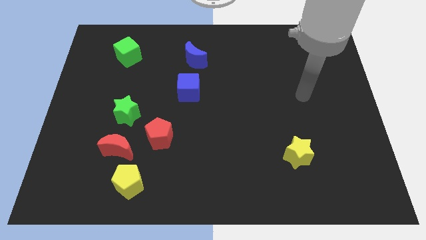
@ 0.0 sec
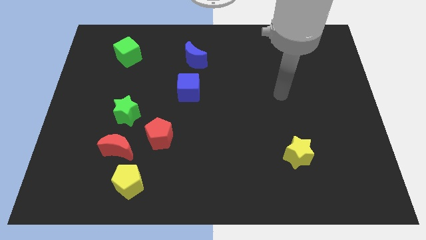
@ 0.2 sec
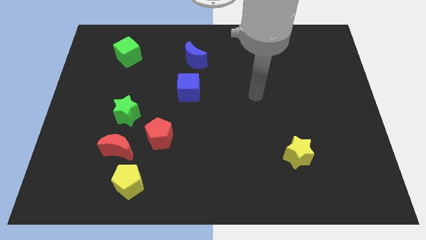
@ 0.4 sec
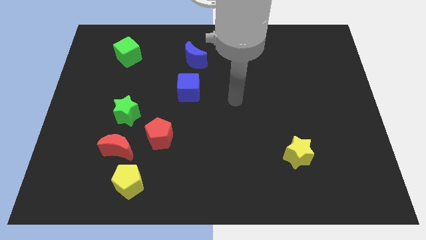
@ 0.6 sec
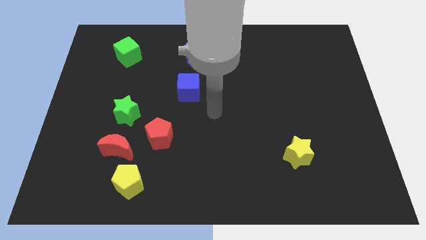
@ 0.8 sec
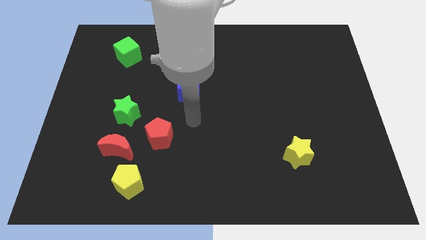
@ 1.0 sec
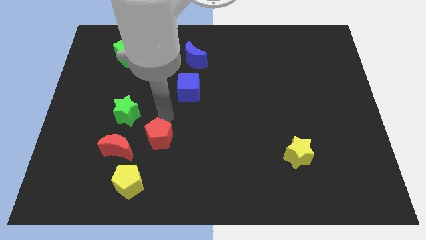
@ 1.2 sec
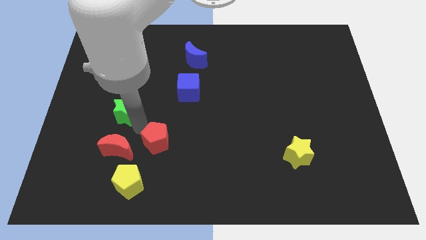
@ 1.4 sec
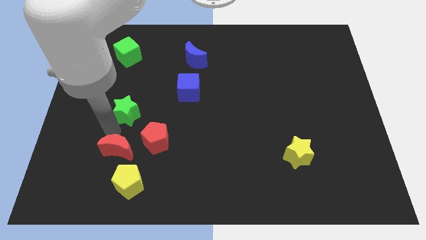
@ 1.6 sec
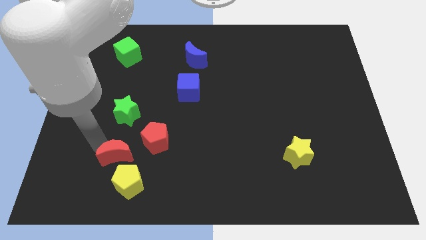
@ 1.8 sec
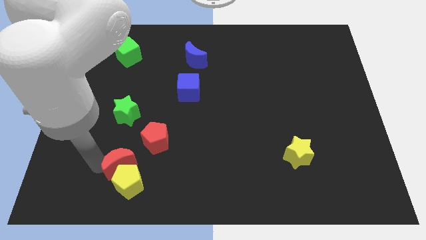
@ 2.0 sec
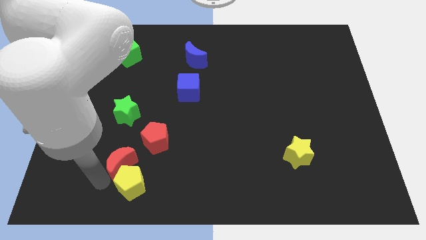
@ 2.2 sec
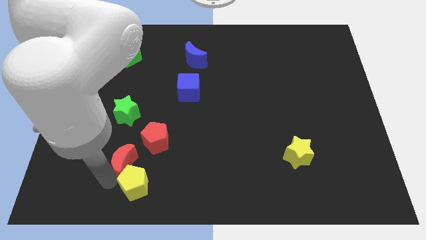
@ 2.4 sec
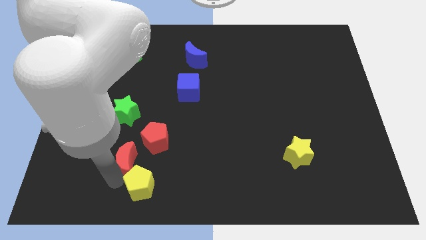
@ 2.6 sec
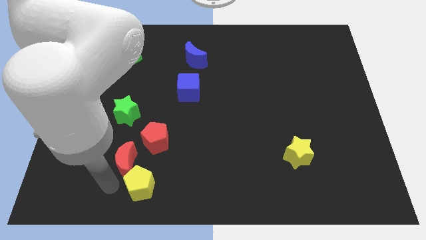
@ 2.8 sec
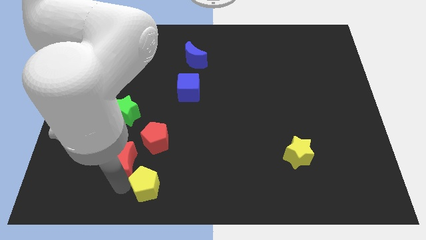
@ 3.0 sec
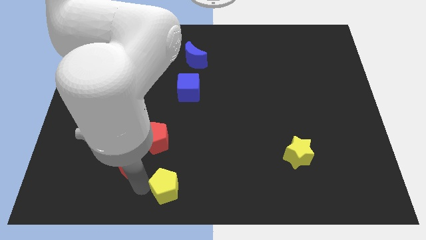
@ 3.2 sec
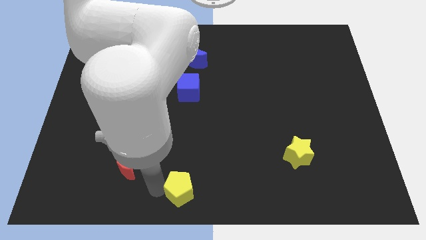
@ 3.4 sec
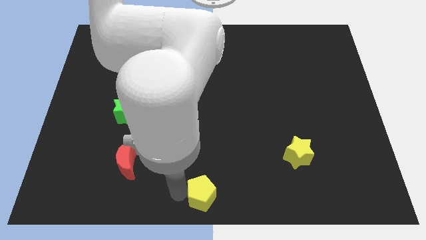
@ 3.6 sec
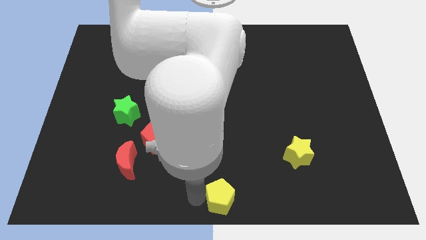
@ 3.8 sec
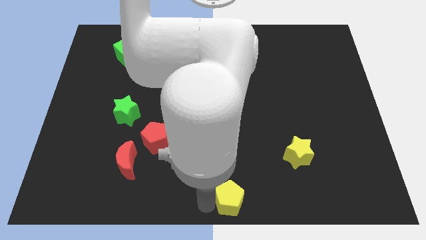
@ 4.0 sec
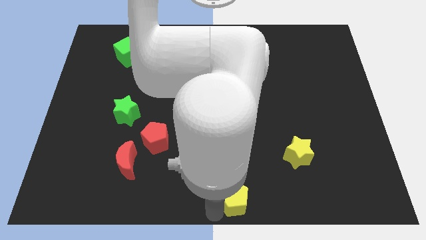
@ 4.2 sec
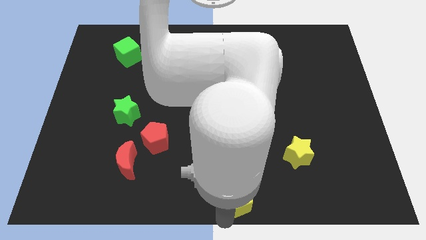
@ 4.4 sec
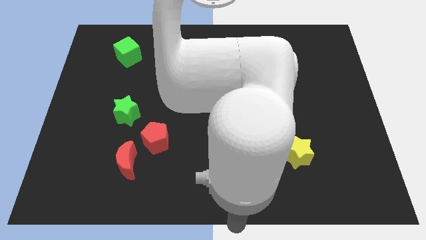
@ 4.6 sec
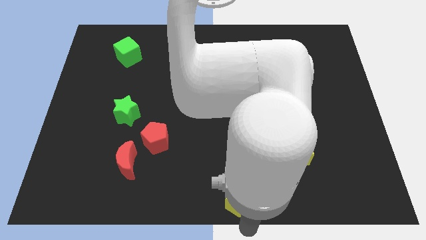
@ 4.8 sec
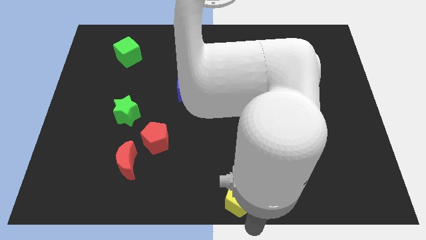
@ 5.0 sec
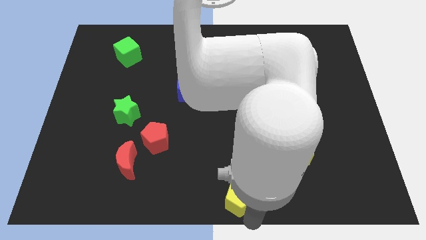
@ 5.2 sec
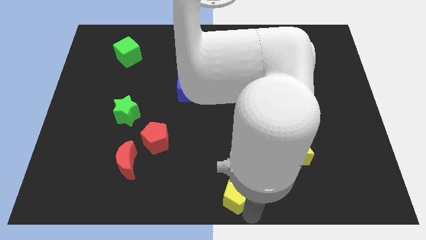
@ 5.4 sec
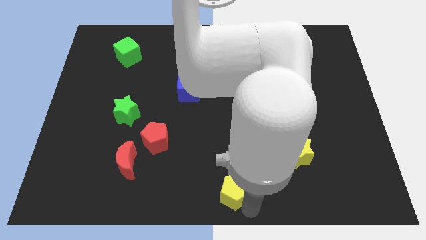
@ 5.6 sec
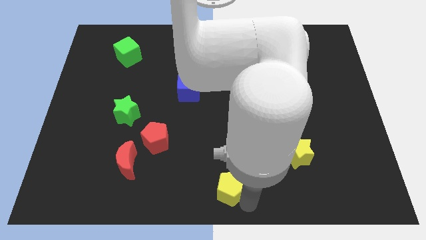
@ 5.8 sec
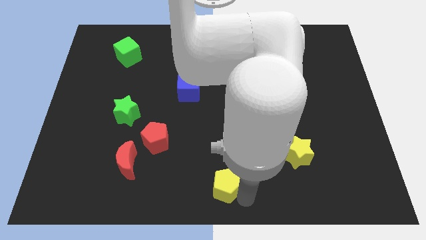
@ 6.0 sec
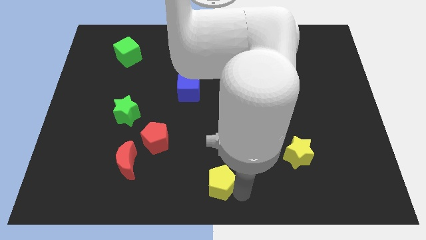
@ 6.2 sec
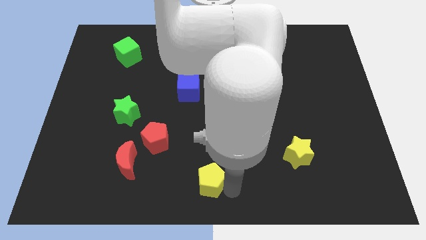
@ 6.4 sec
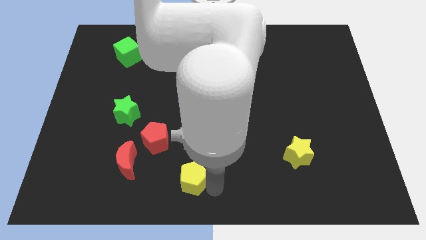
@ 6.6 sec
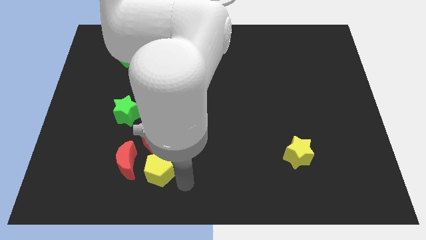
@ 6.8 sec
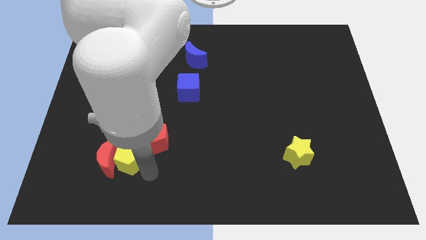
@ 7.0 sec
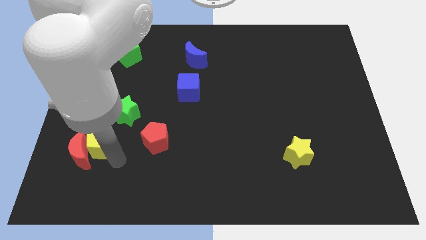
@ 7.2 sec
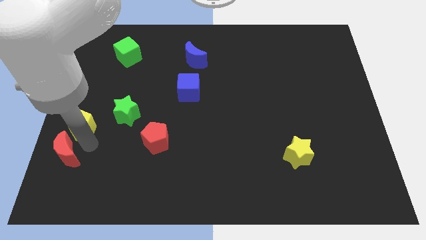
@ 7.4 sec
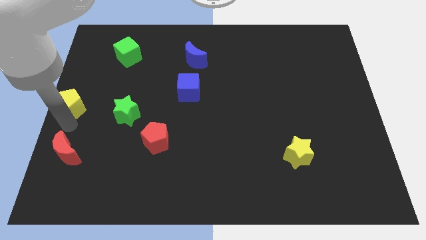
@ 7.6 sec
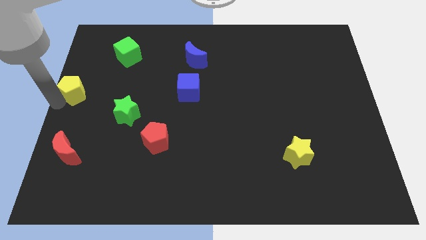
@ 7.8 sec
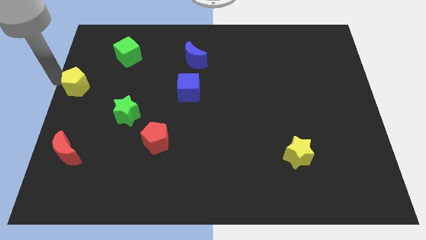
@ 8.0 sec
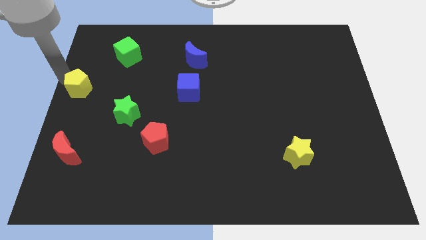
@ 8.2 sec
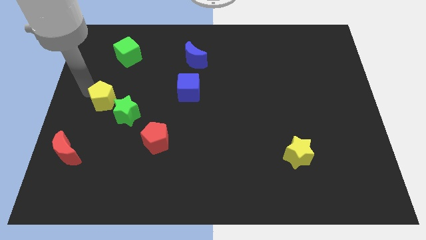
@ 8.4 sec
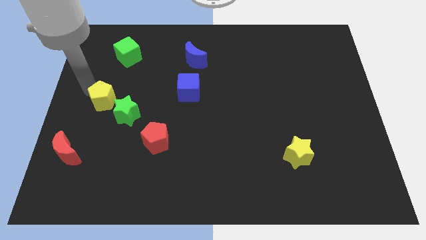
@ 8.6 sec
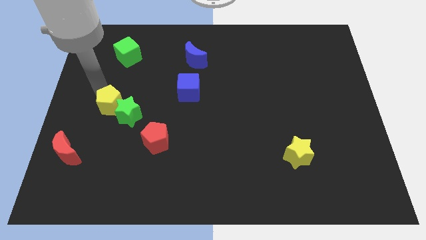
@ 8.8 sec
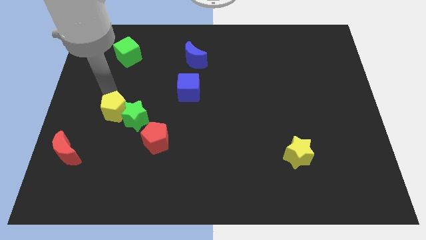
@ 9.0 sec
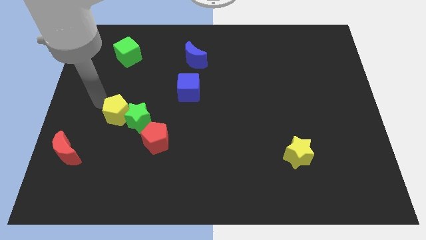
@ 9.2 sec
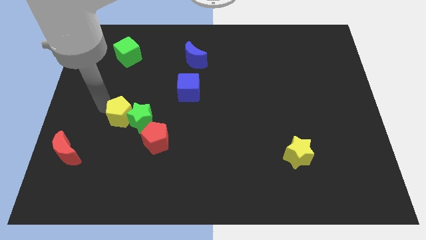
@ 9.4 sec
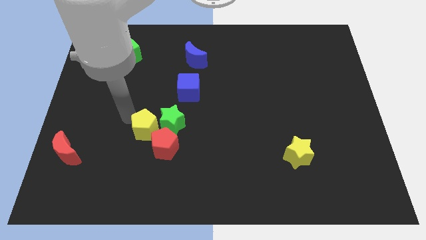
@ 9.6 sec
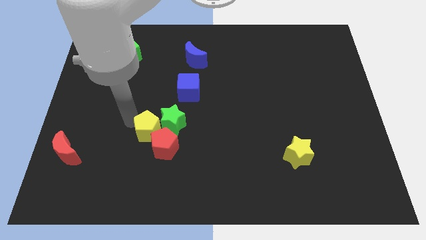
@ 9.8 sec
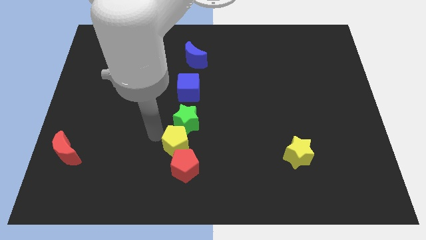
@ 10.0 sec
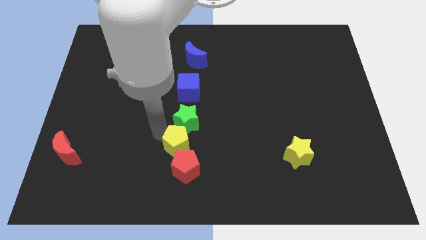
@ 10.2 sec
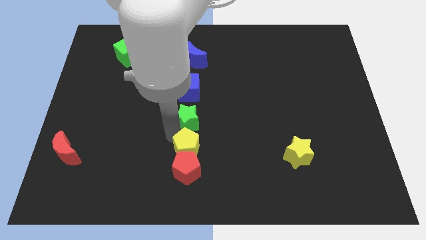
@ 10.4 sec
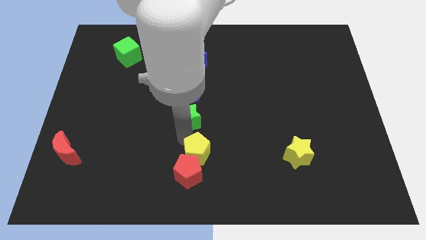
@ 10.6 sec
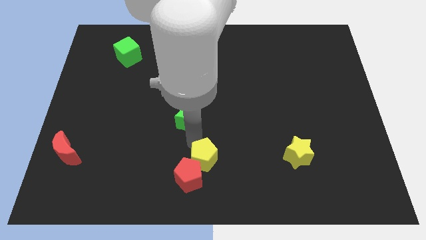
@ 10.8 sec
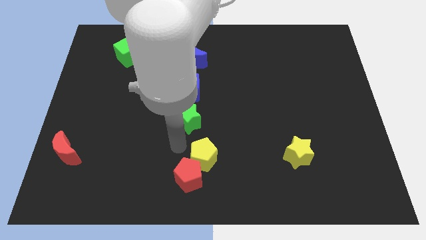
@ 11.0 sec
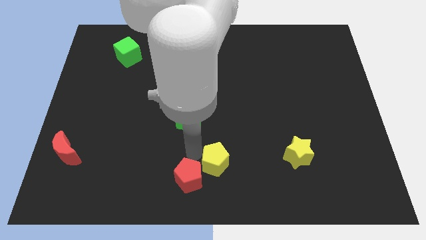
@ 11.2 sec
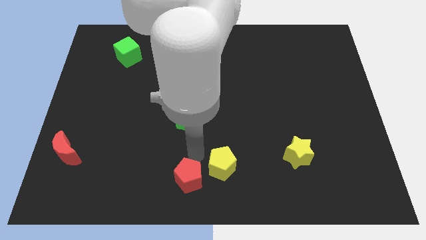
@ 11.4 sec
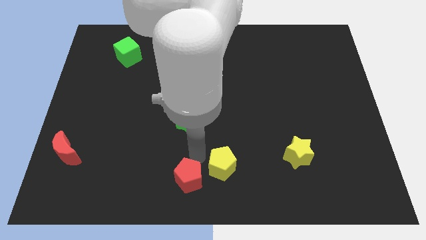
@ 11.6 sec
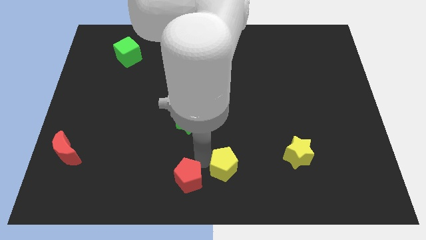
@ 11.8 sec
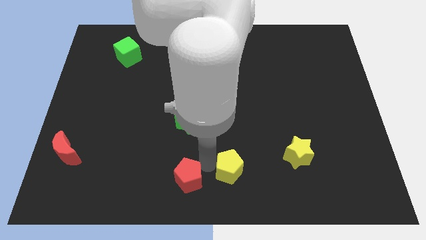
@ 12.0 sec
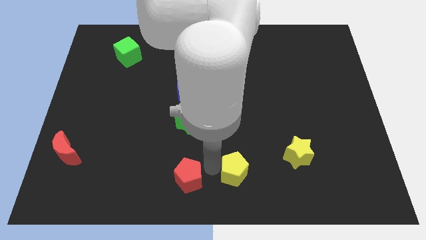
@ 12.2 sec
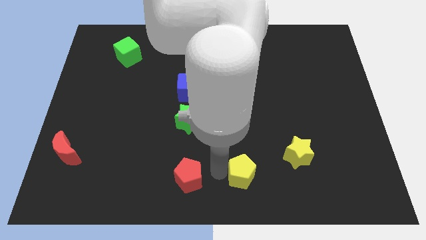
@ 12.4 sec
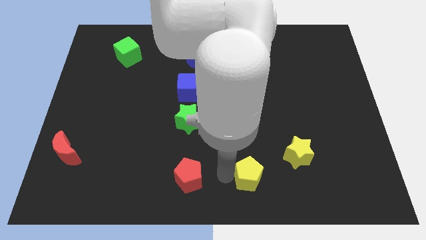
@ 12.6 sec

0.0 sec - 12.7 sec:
move the yellow pentagon to the bottom left of the yellow star
